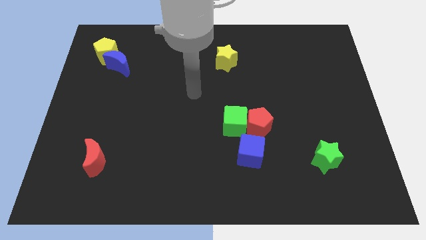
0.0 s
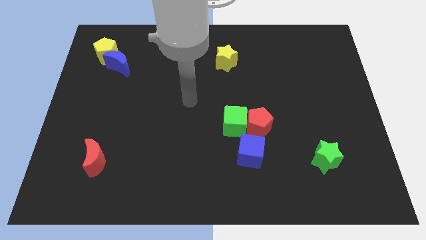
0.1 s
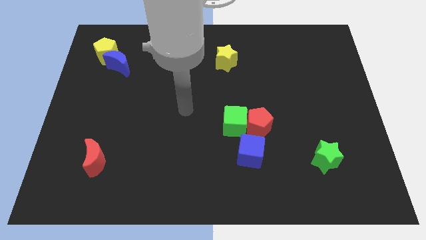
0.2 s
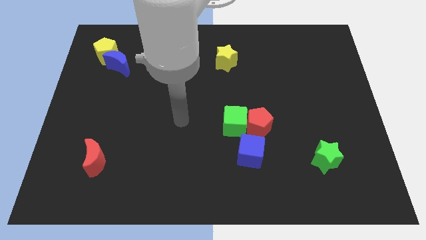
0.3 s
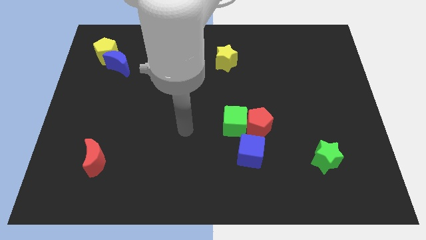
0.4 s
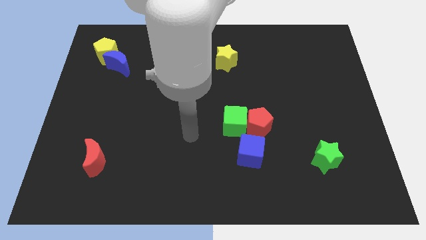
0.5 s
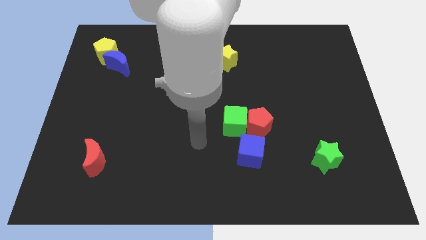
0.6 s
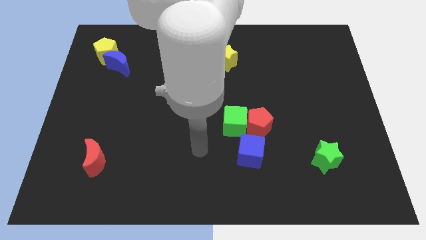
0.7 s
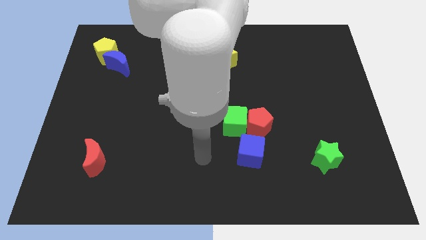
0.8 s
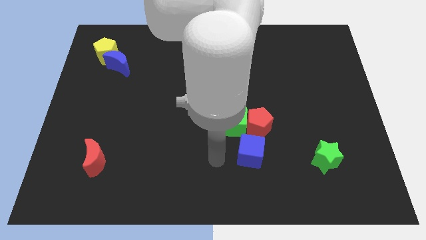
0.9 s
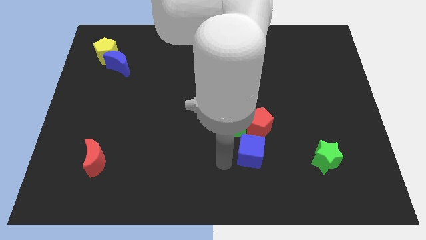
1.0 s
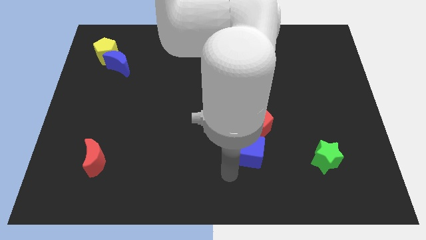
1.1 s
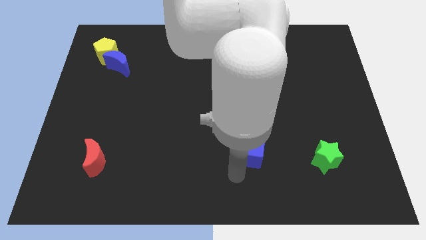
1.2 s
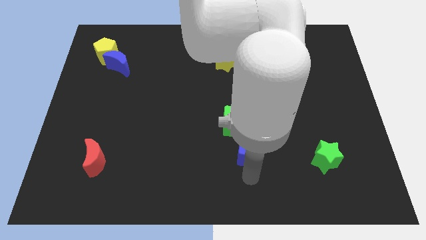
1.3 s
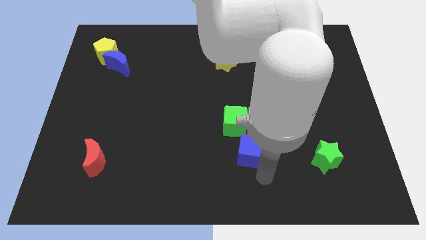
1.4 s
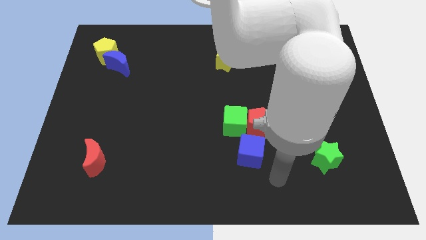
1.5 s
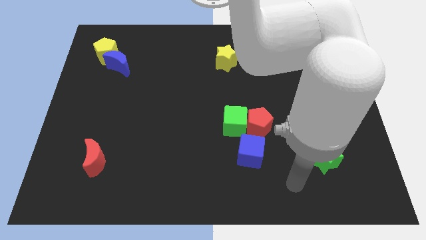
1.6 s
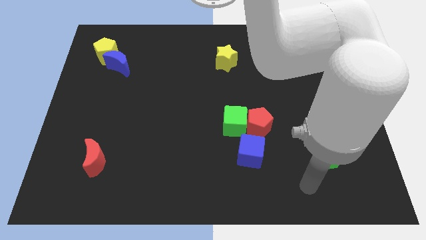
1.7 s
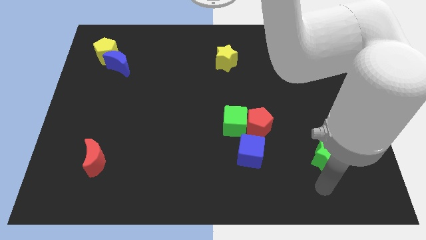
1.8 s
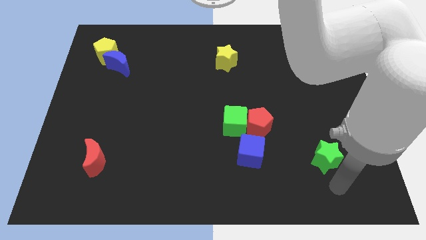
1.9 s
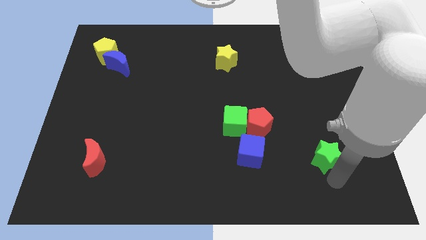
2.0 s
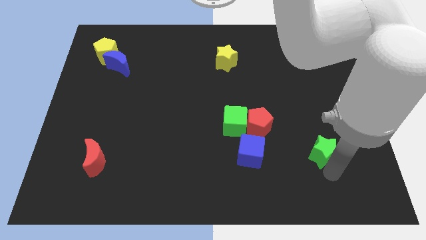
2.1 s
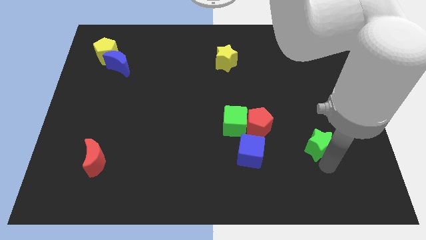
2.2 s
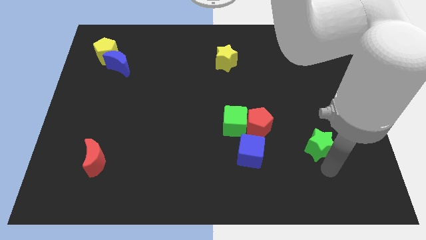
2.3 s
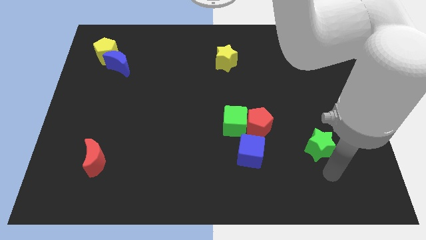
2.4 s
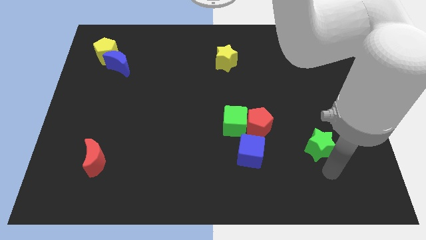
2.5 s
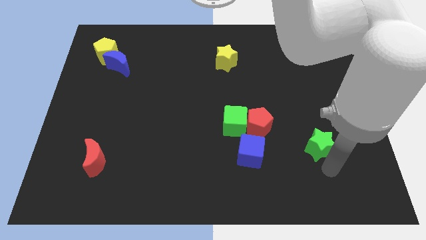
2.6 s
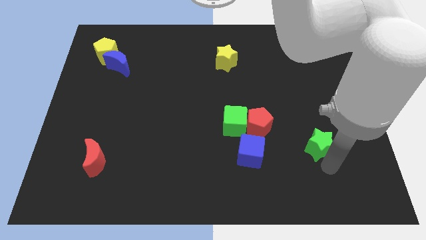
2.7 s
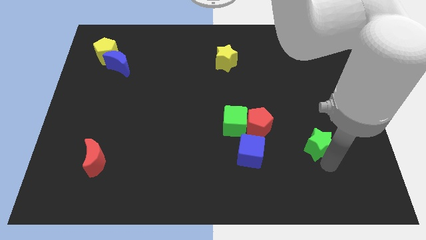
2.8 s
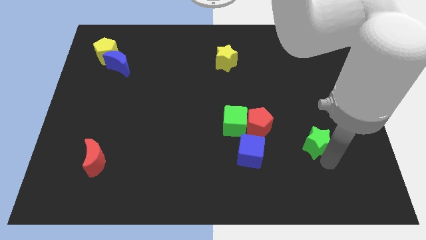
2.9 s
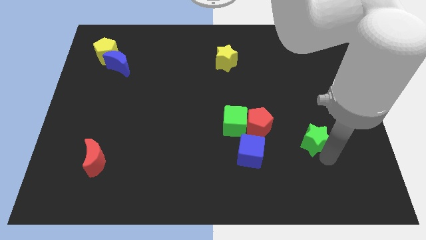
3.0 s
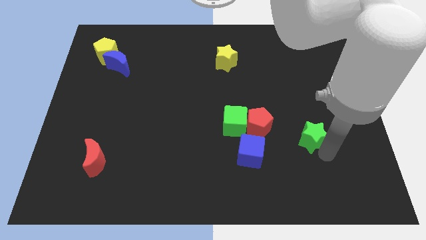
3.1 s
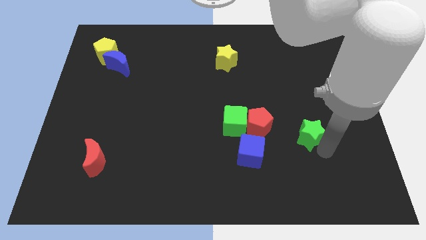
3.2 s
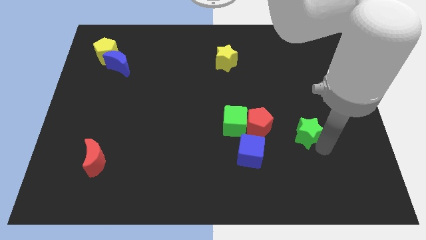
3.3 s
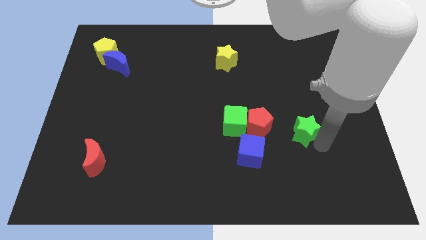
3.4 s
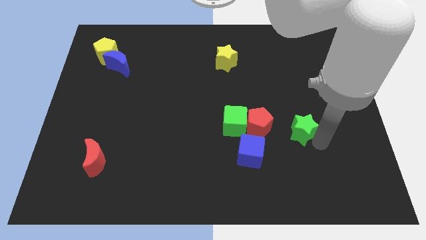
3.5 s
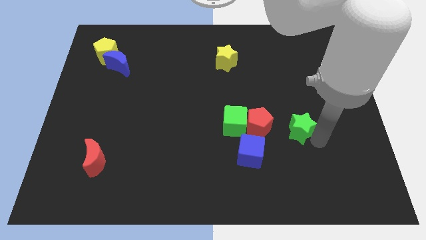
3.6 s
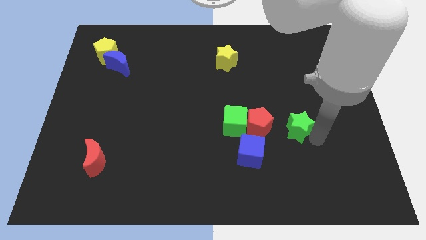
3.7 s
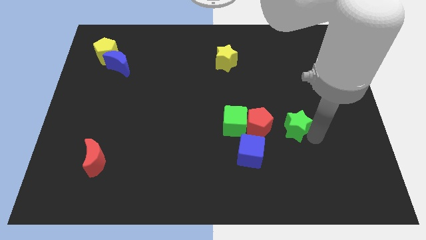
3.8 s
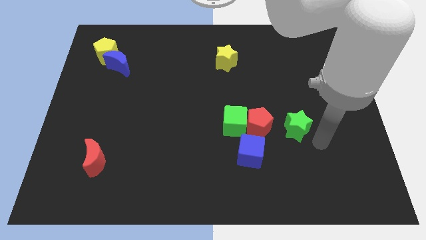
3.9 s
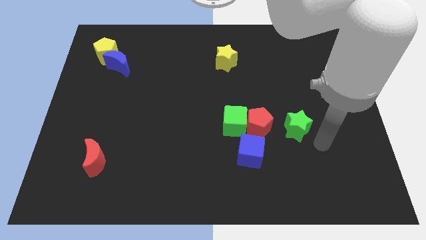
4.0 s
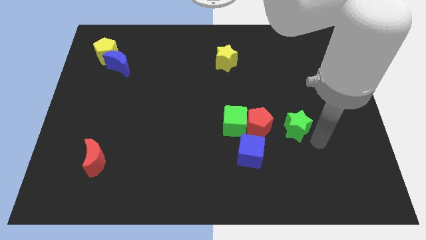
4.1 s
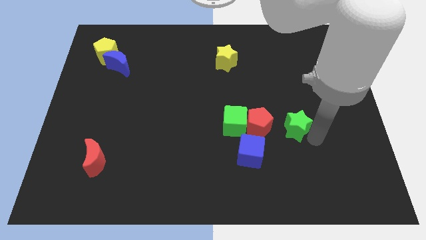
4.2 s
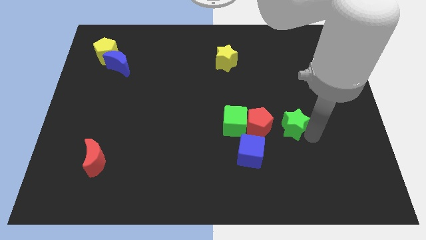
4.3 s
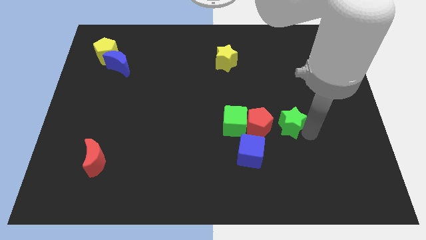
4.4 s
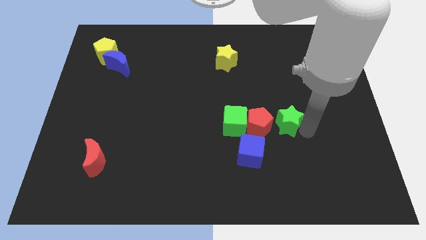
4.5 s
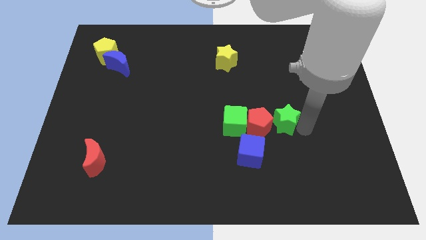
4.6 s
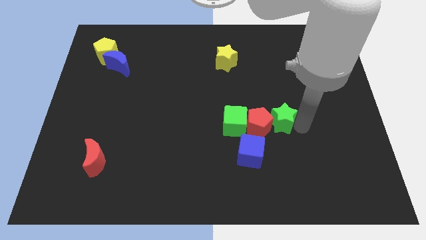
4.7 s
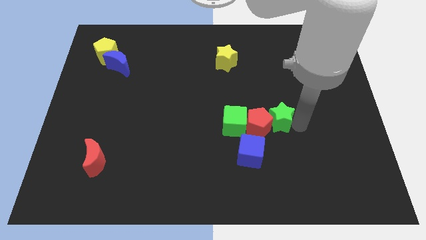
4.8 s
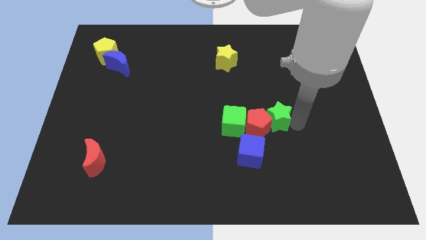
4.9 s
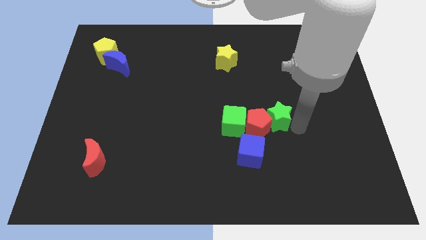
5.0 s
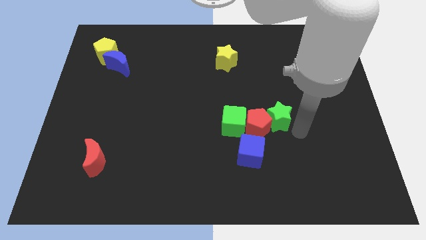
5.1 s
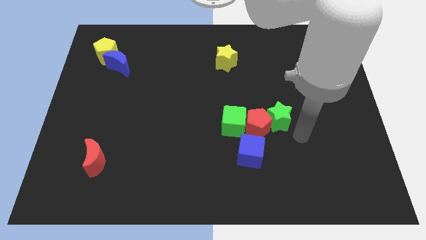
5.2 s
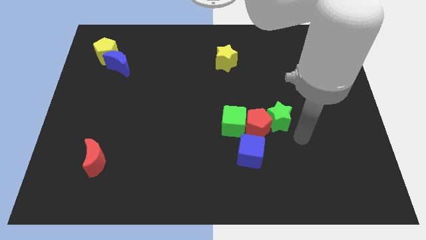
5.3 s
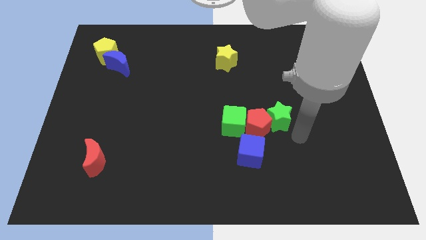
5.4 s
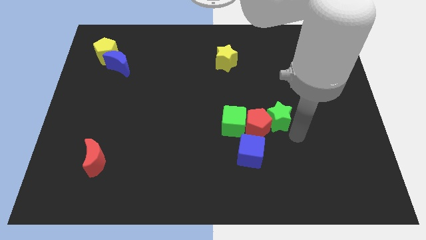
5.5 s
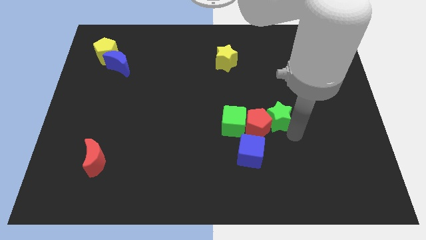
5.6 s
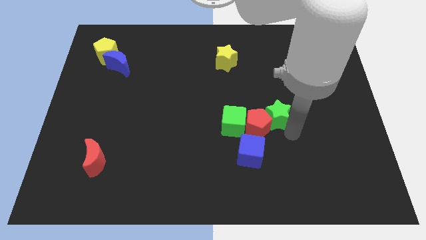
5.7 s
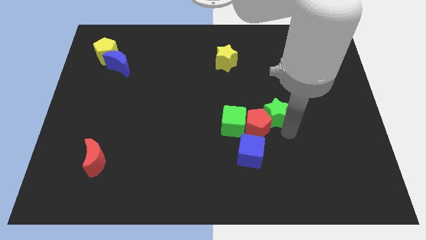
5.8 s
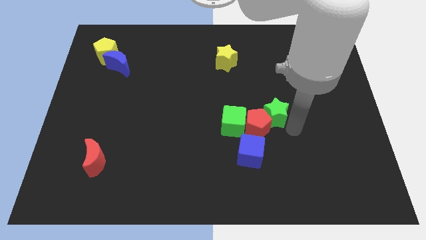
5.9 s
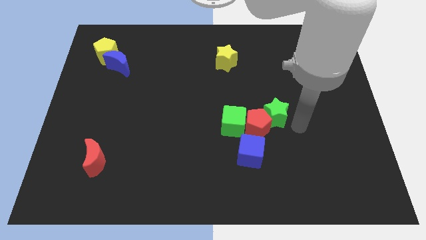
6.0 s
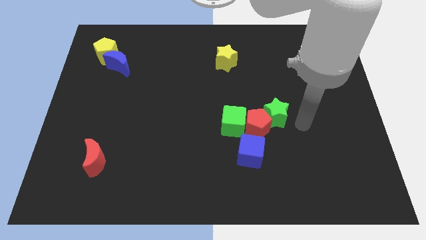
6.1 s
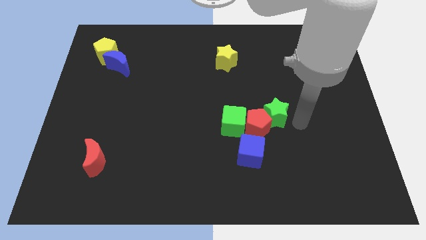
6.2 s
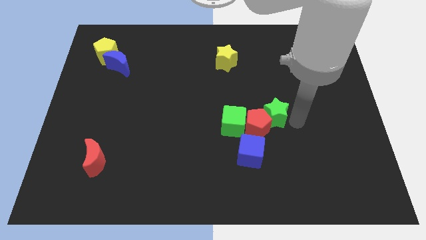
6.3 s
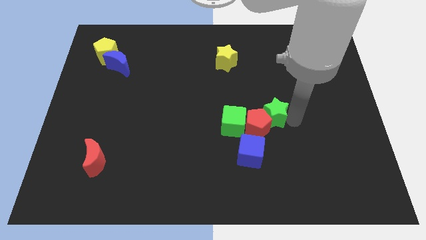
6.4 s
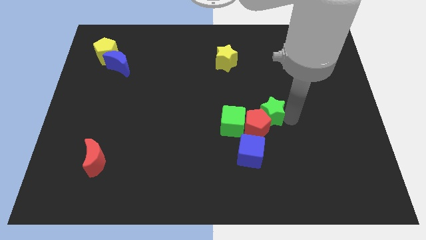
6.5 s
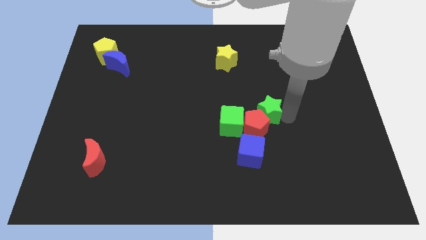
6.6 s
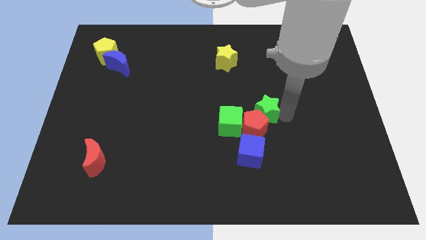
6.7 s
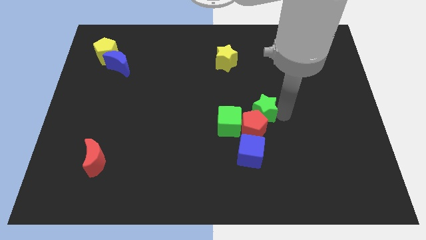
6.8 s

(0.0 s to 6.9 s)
put the green star to the middle of the board

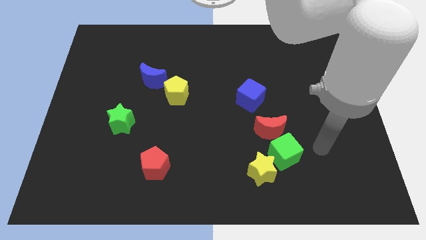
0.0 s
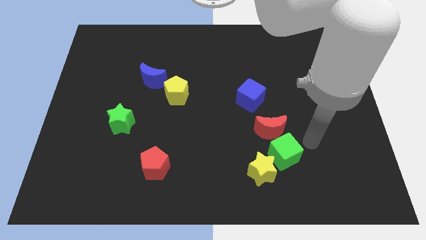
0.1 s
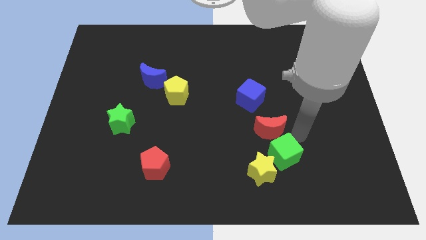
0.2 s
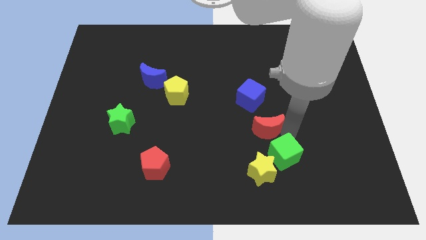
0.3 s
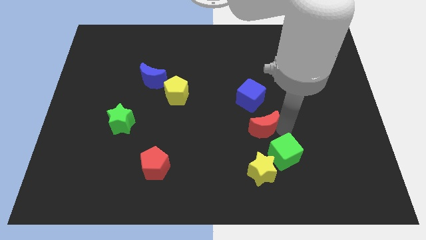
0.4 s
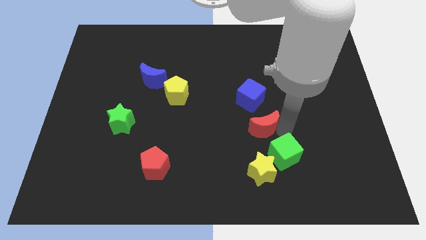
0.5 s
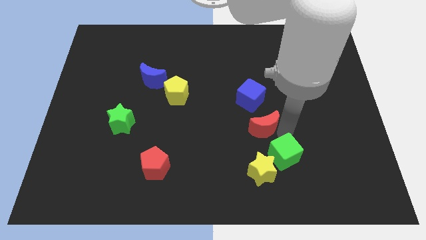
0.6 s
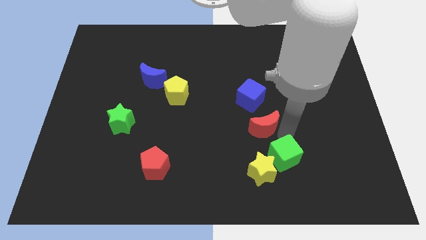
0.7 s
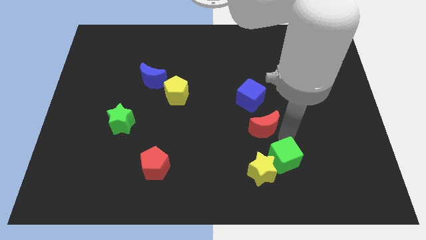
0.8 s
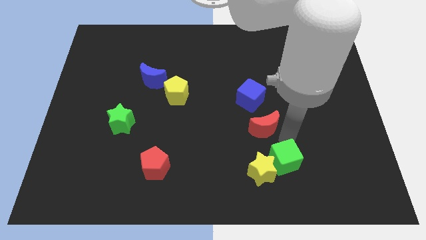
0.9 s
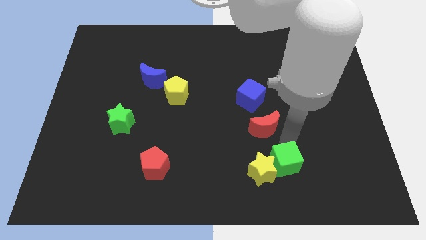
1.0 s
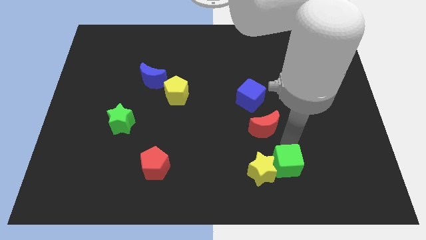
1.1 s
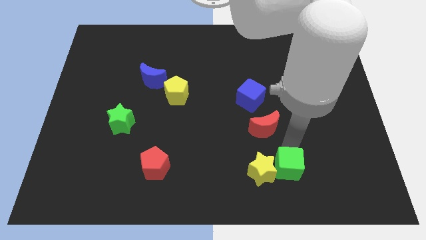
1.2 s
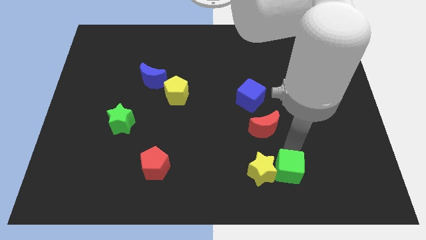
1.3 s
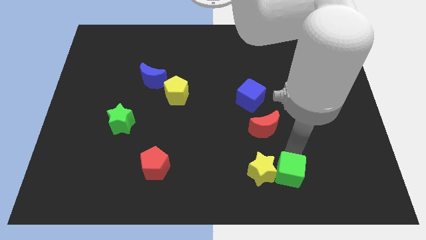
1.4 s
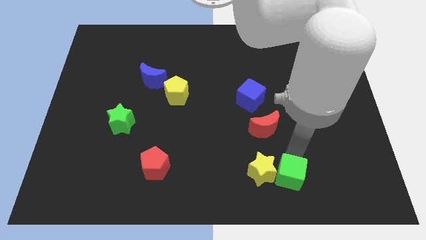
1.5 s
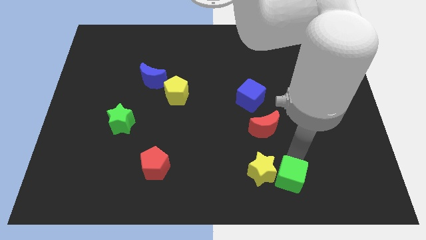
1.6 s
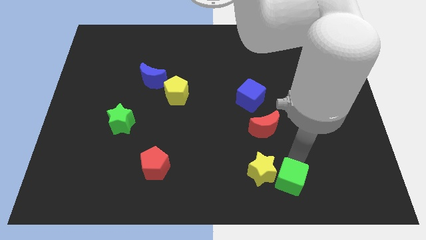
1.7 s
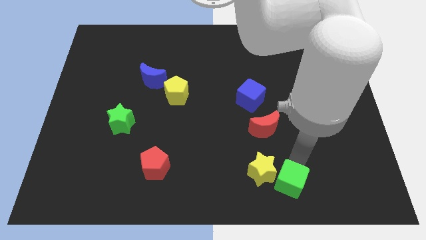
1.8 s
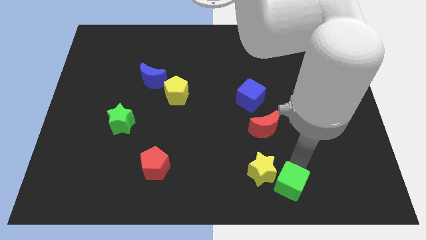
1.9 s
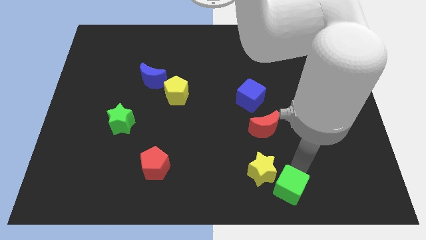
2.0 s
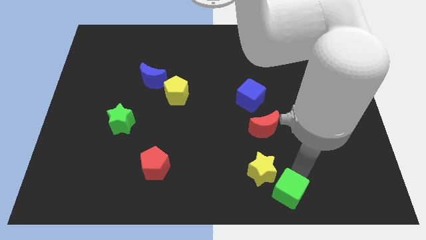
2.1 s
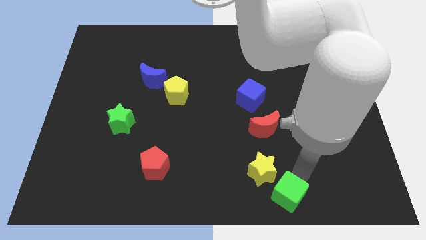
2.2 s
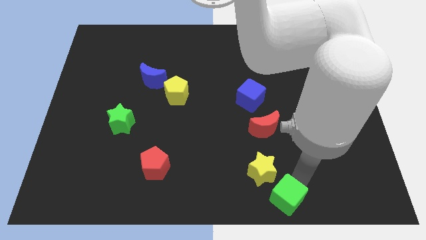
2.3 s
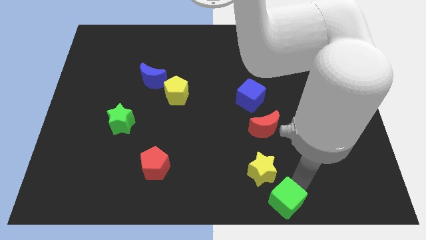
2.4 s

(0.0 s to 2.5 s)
slide the green cube to the bottom
